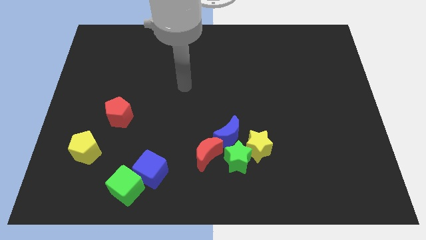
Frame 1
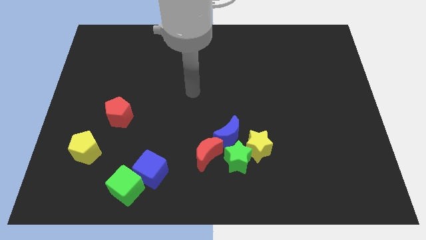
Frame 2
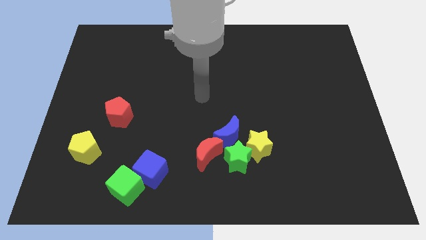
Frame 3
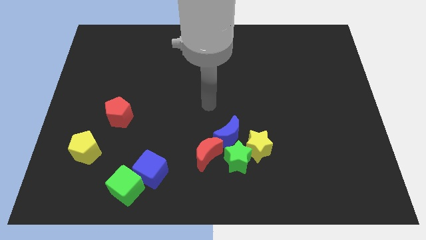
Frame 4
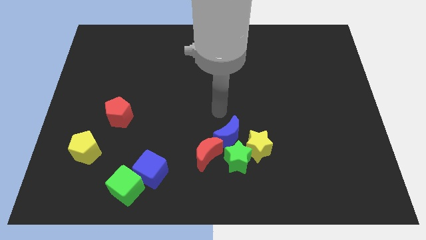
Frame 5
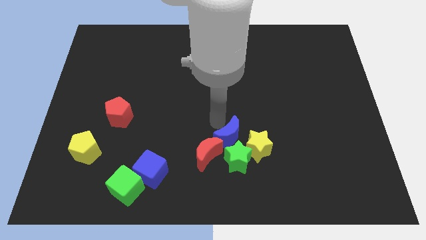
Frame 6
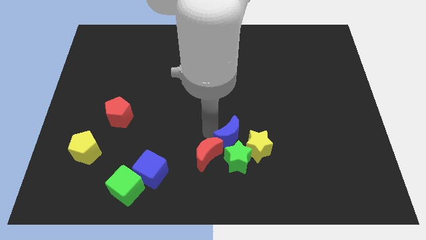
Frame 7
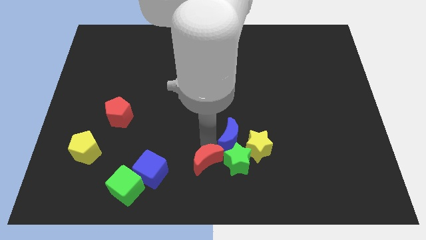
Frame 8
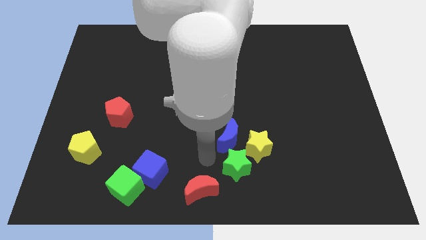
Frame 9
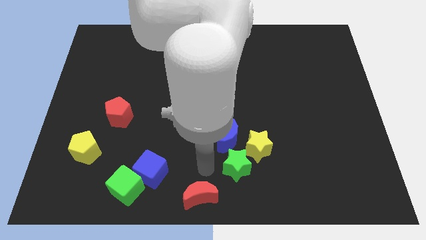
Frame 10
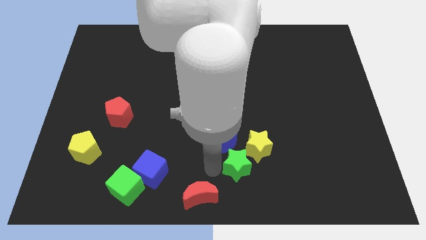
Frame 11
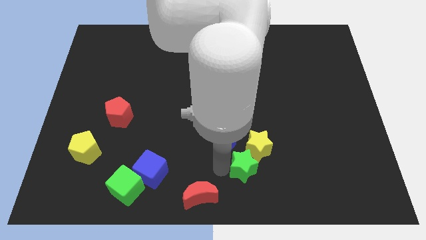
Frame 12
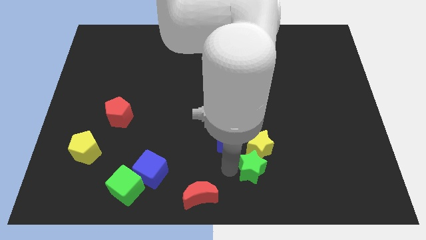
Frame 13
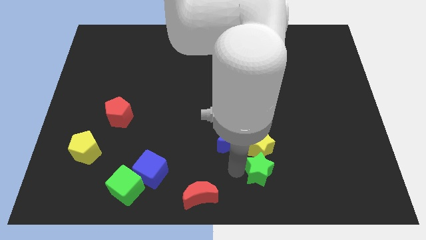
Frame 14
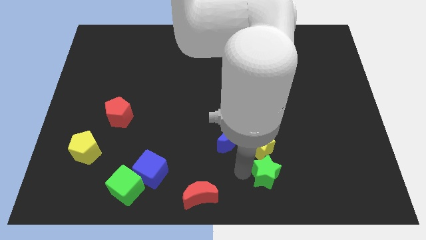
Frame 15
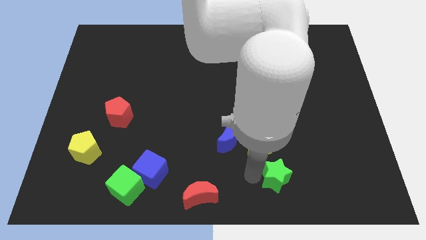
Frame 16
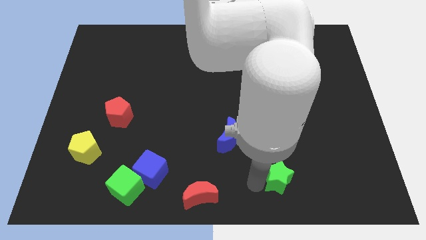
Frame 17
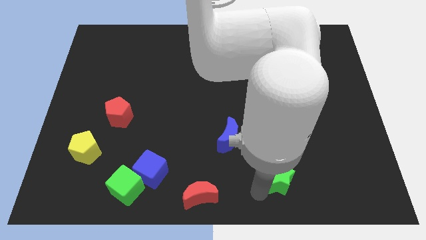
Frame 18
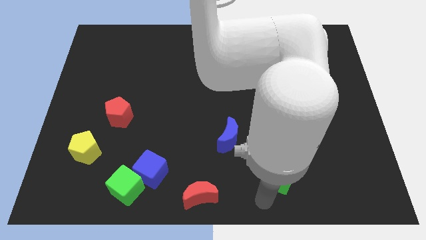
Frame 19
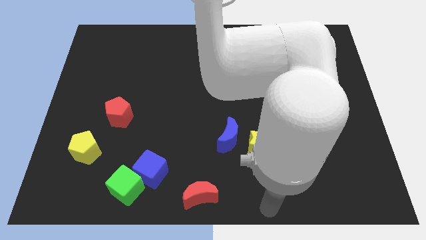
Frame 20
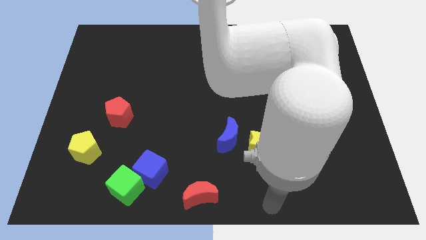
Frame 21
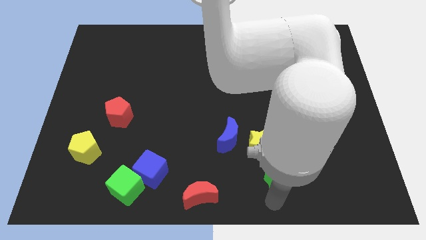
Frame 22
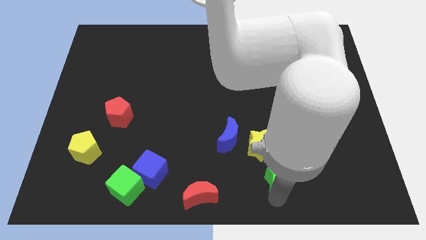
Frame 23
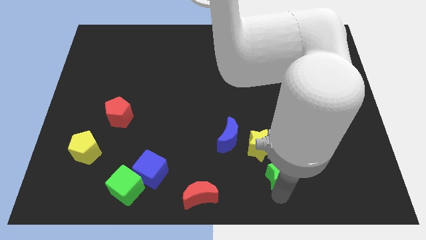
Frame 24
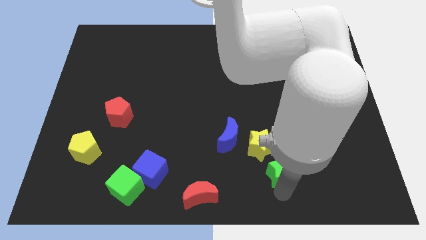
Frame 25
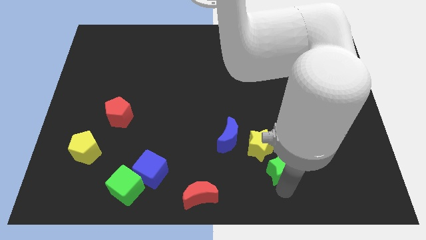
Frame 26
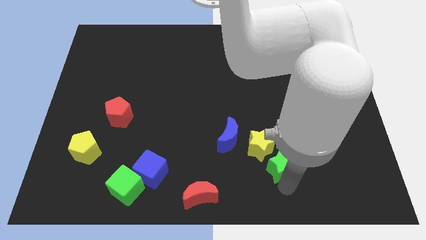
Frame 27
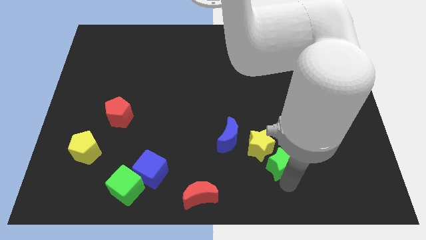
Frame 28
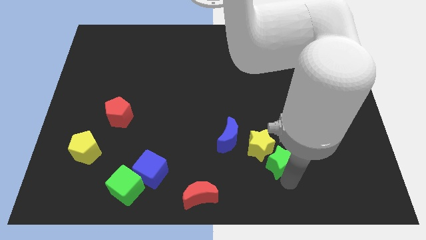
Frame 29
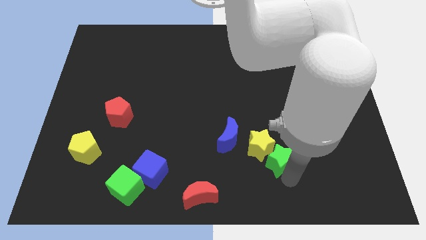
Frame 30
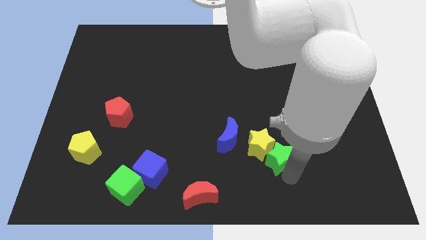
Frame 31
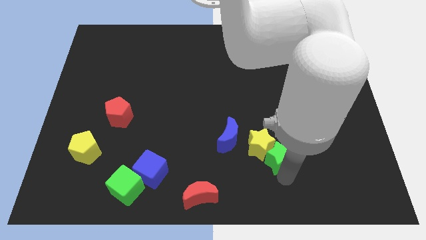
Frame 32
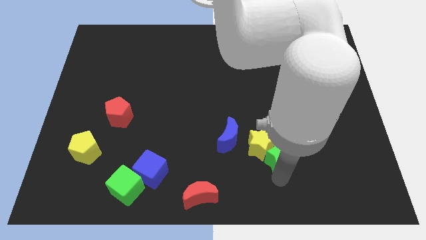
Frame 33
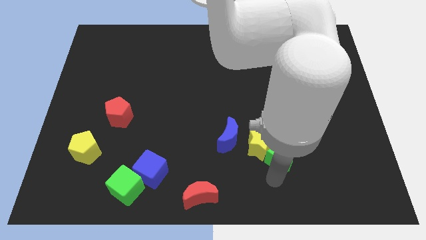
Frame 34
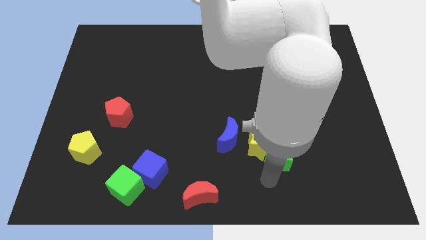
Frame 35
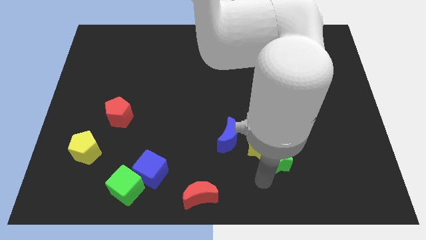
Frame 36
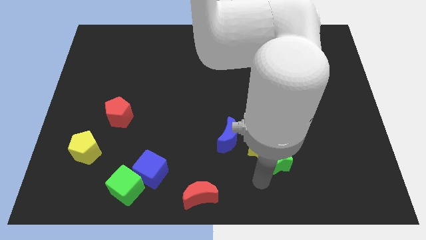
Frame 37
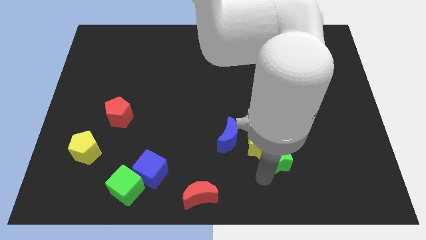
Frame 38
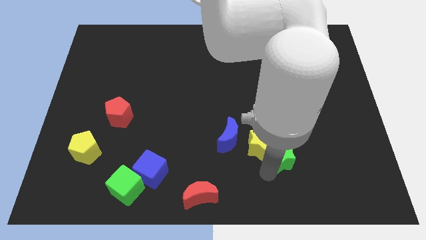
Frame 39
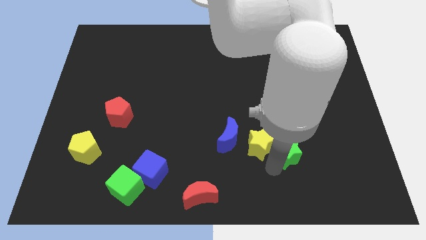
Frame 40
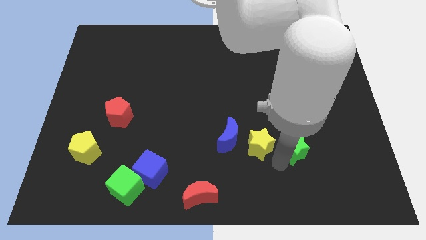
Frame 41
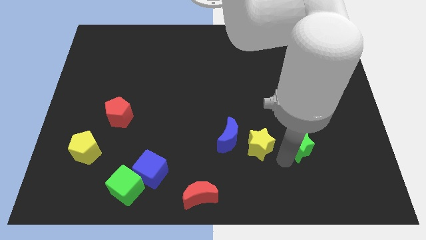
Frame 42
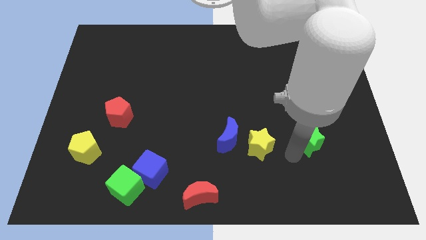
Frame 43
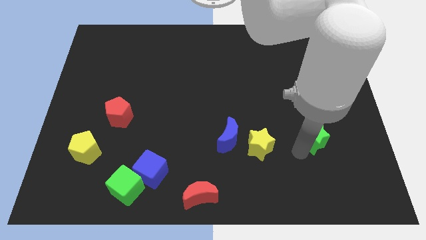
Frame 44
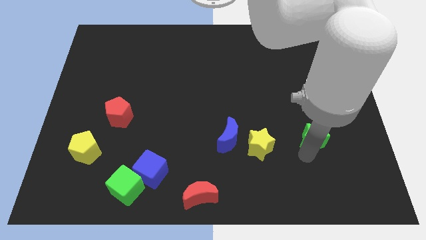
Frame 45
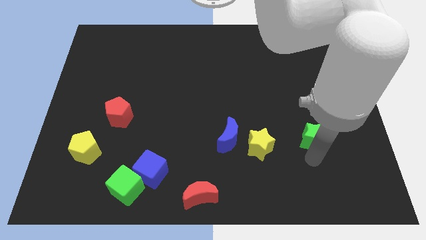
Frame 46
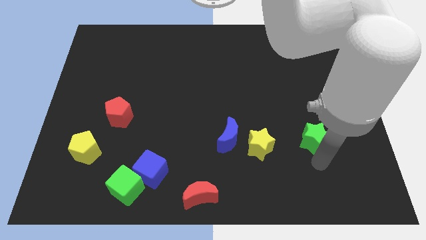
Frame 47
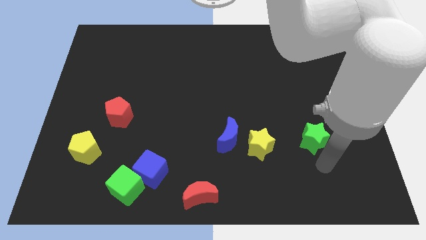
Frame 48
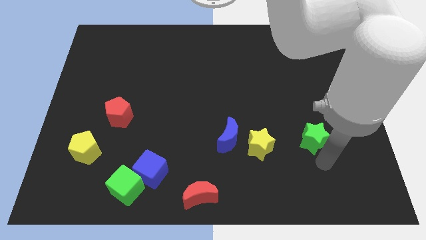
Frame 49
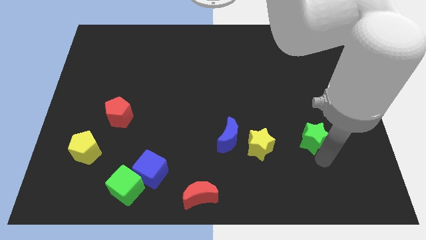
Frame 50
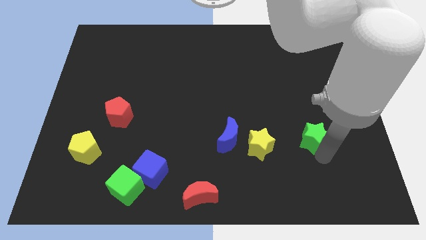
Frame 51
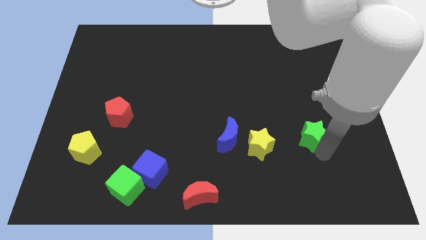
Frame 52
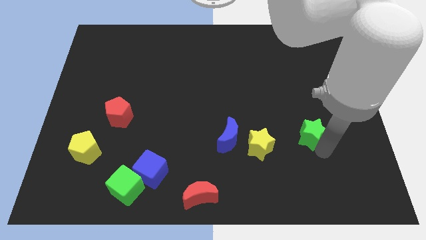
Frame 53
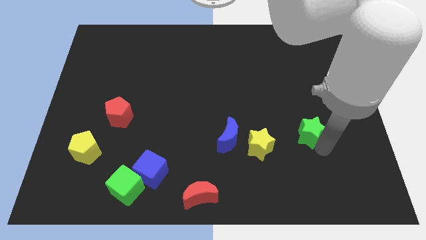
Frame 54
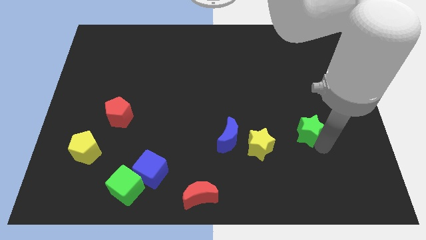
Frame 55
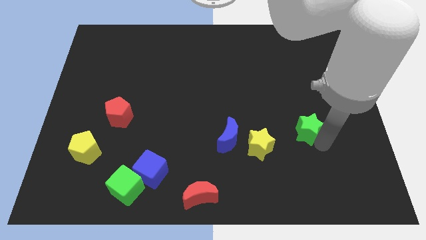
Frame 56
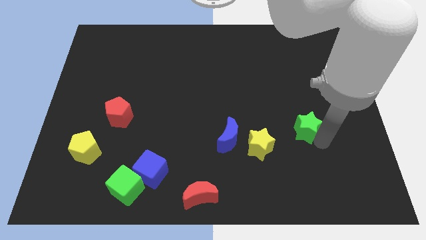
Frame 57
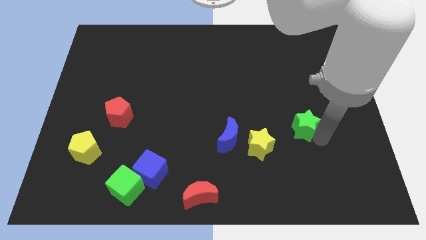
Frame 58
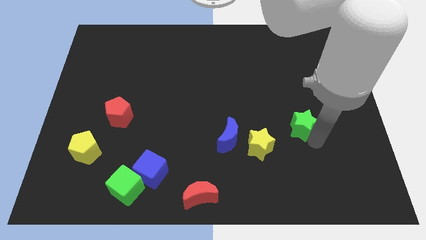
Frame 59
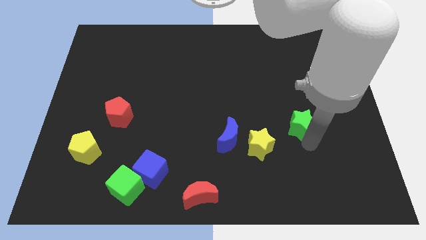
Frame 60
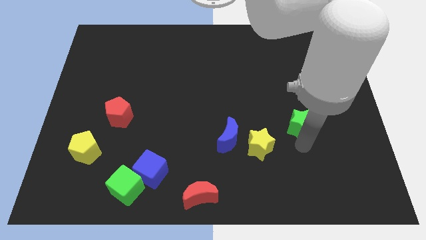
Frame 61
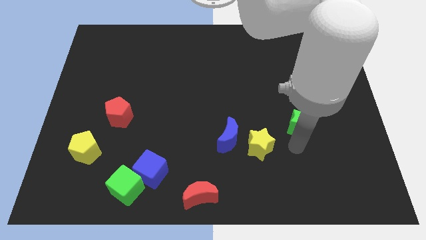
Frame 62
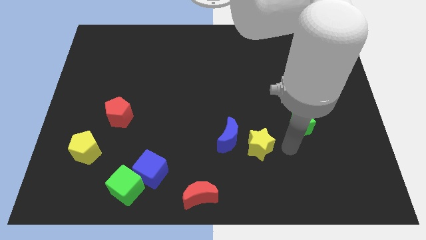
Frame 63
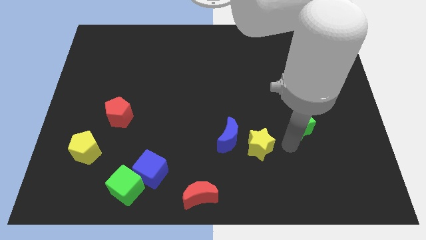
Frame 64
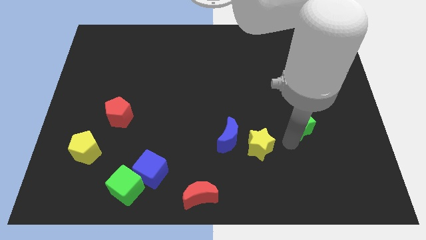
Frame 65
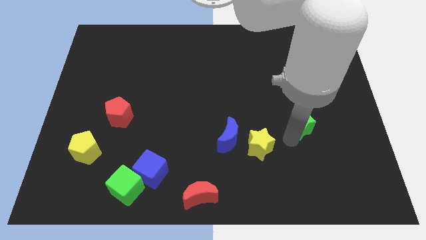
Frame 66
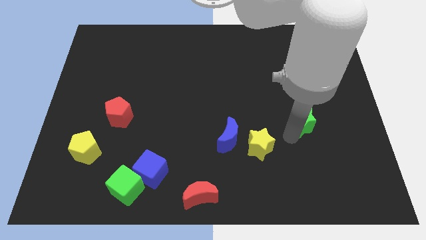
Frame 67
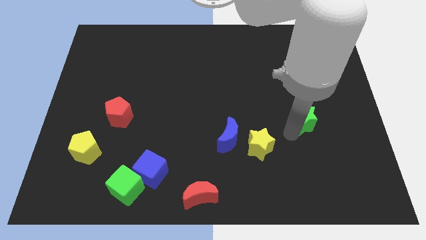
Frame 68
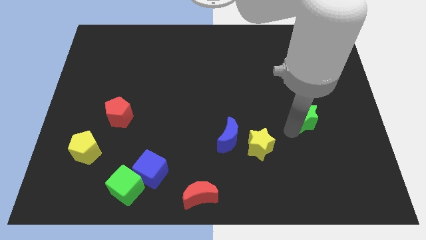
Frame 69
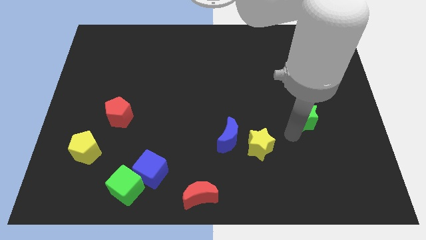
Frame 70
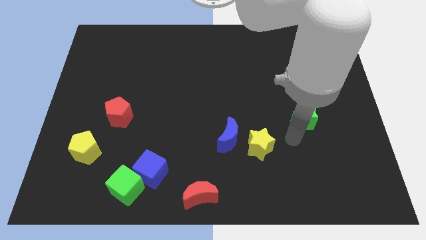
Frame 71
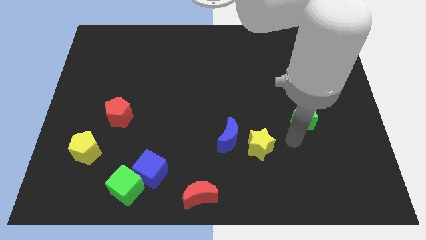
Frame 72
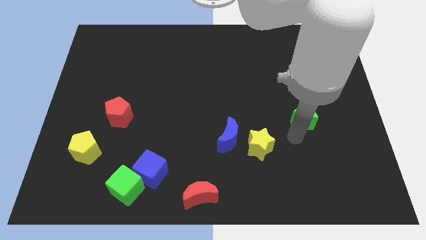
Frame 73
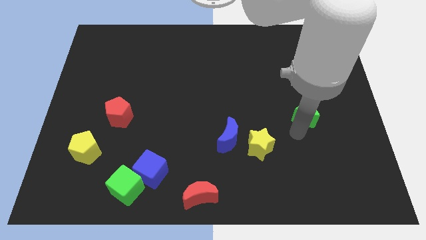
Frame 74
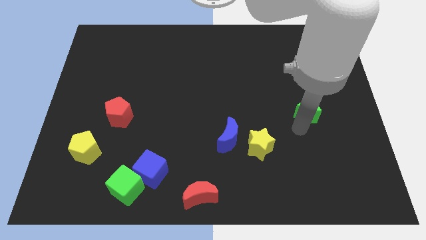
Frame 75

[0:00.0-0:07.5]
move the green star upwards and to the right

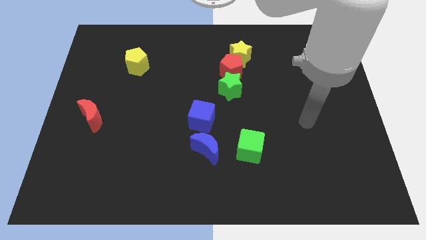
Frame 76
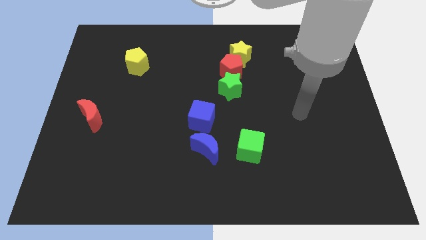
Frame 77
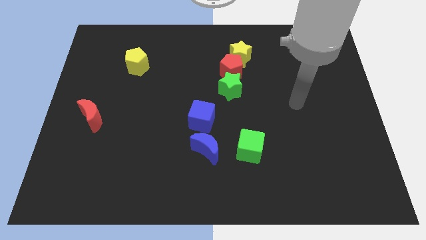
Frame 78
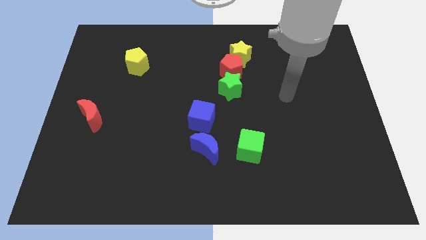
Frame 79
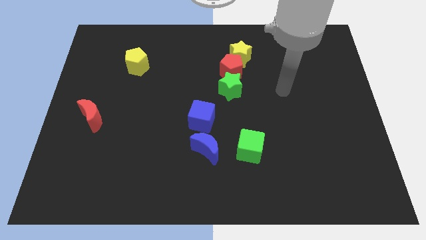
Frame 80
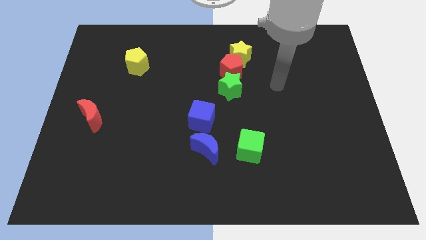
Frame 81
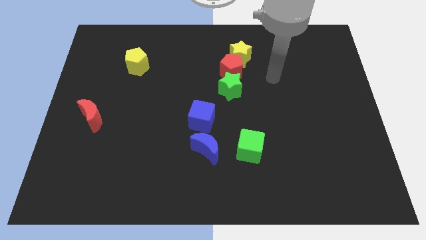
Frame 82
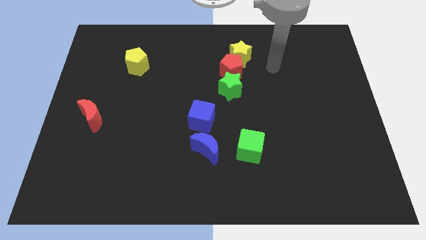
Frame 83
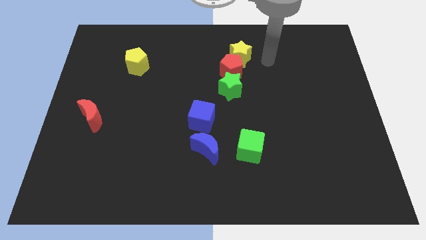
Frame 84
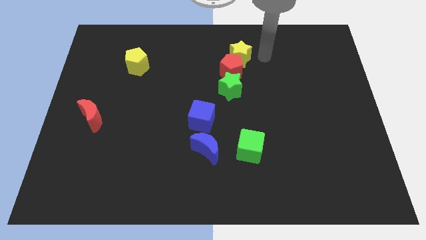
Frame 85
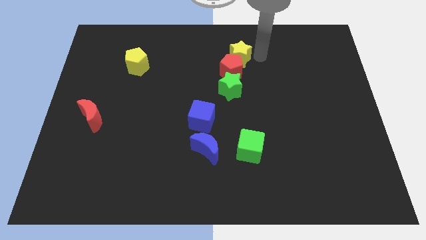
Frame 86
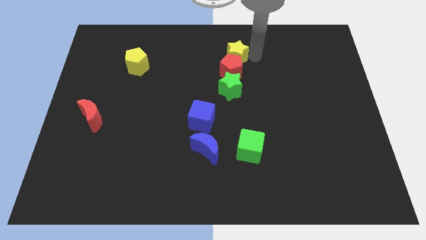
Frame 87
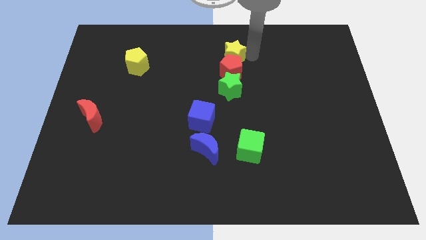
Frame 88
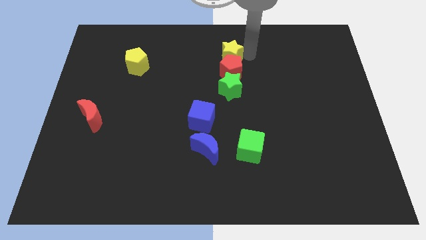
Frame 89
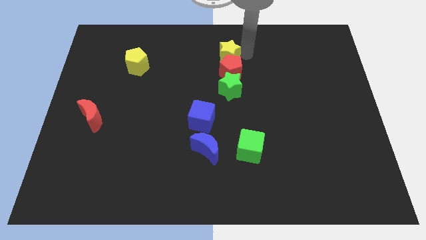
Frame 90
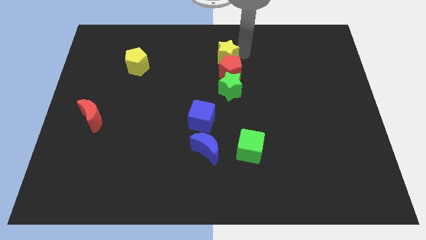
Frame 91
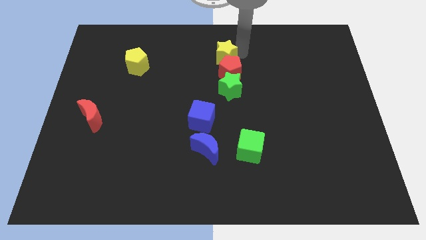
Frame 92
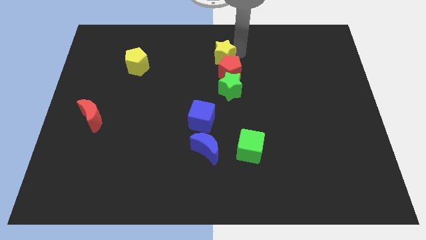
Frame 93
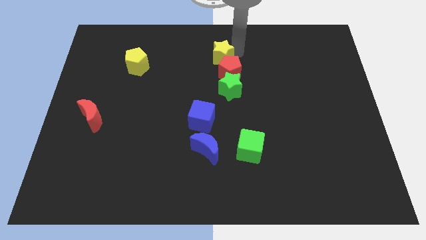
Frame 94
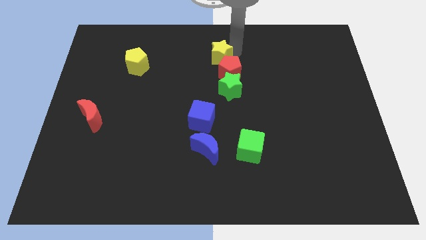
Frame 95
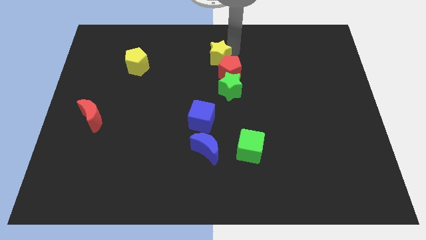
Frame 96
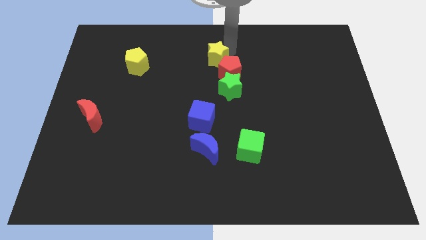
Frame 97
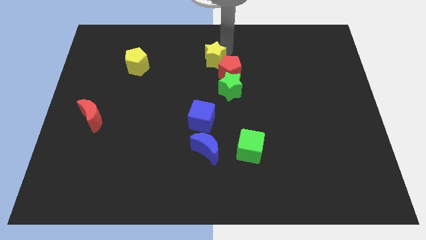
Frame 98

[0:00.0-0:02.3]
move the yellow star left a little
